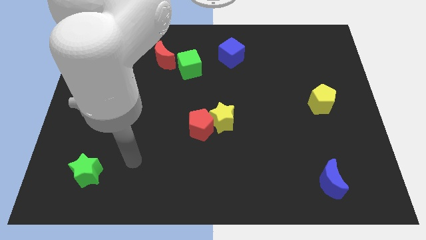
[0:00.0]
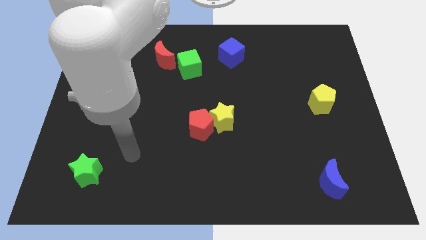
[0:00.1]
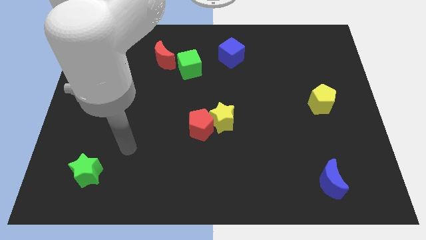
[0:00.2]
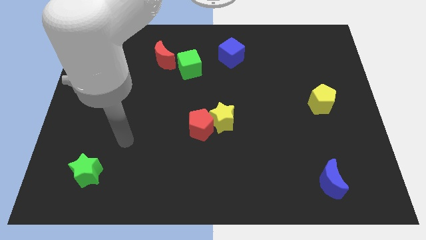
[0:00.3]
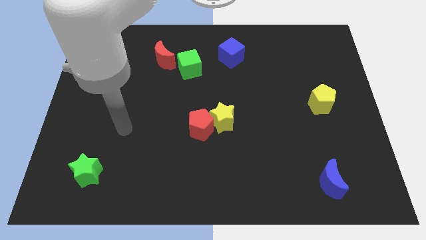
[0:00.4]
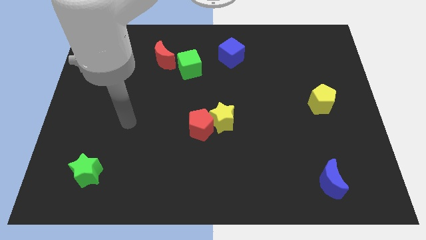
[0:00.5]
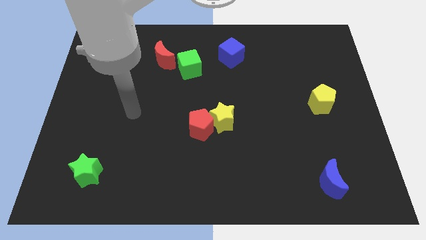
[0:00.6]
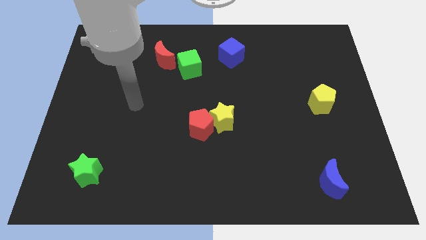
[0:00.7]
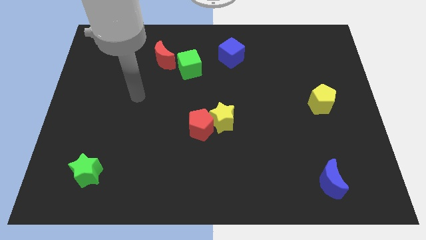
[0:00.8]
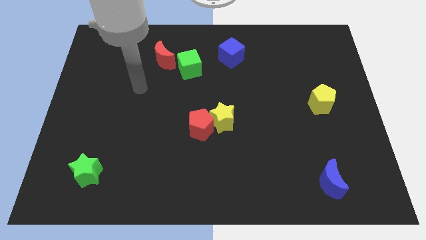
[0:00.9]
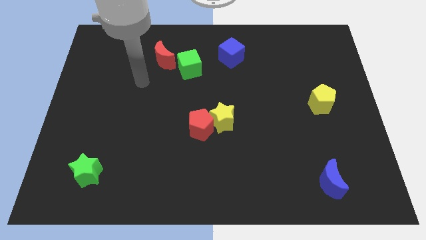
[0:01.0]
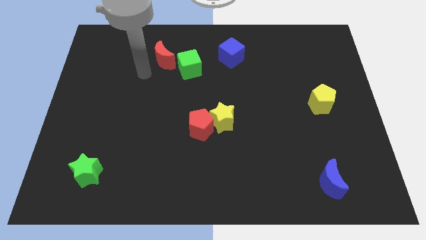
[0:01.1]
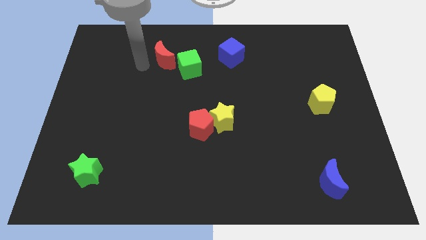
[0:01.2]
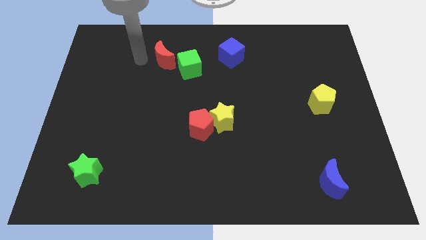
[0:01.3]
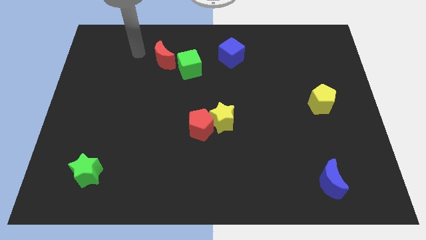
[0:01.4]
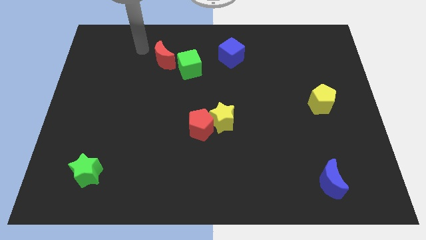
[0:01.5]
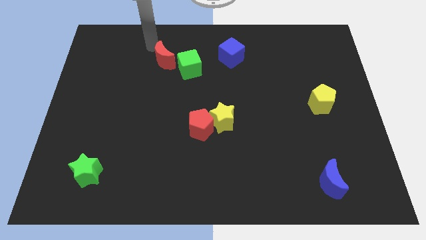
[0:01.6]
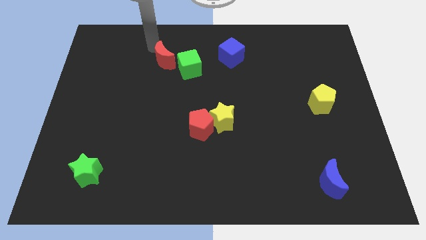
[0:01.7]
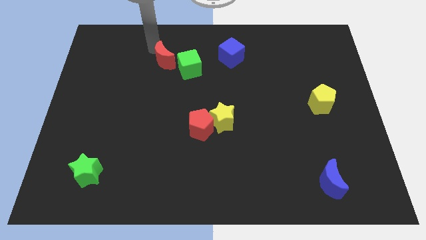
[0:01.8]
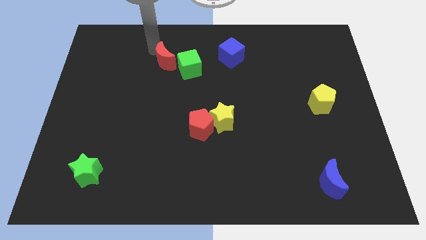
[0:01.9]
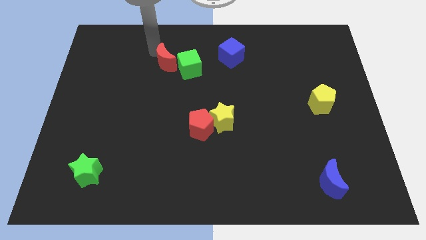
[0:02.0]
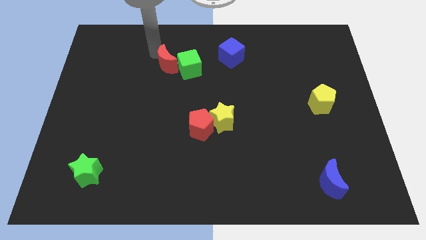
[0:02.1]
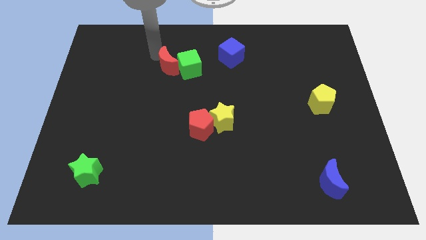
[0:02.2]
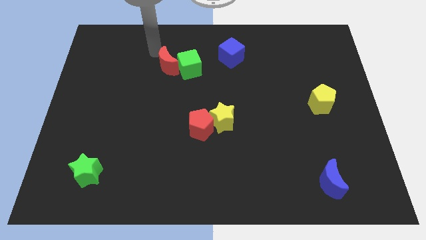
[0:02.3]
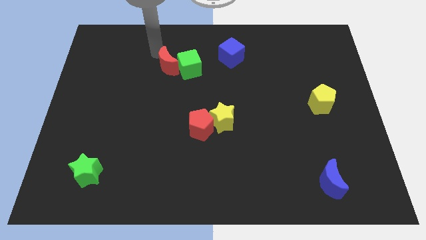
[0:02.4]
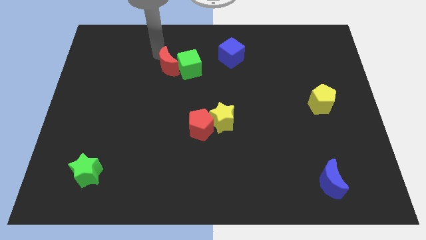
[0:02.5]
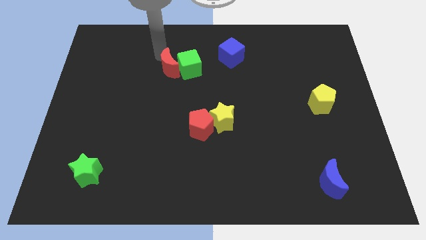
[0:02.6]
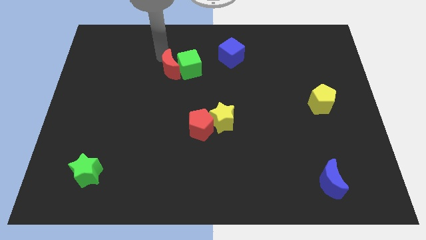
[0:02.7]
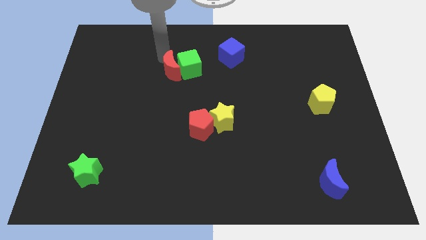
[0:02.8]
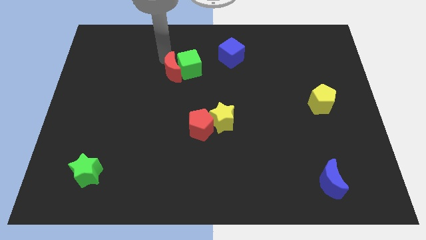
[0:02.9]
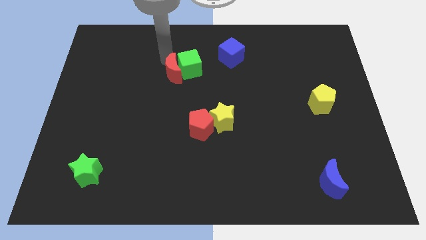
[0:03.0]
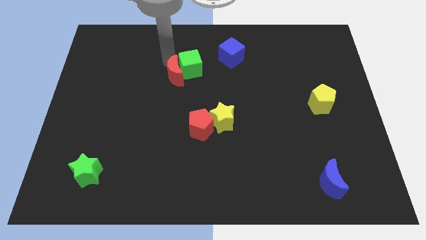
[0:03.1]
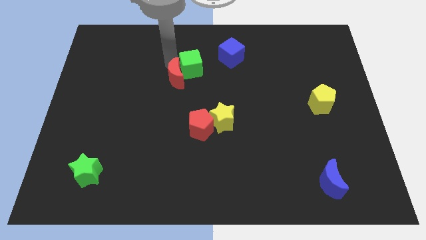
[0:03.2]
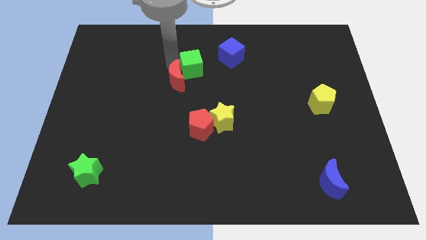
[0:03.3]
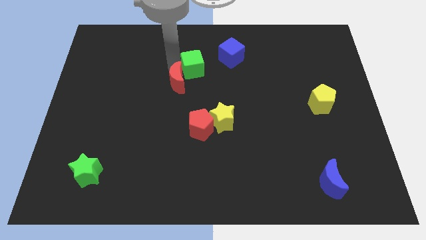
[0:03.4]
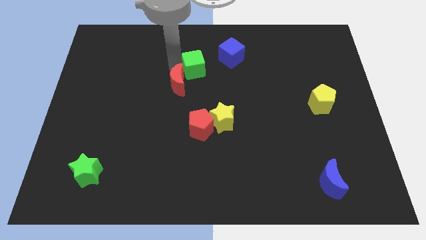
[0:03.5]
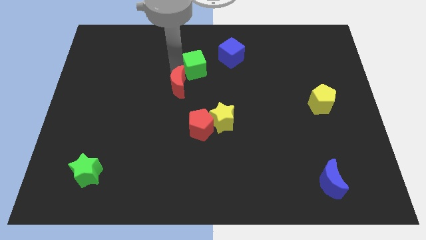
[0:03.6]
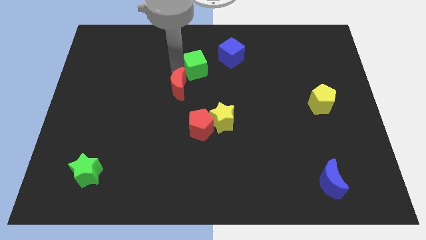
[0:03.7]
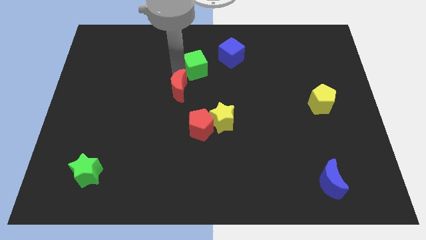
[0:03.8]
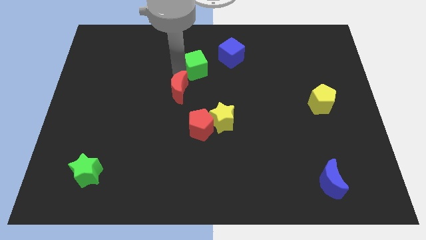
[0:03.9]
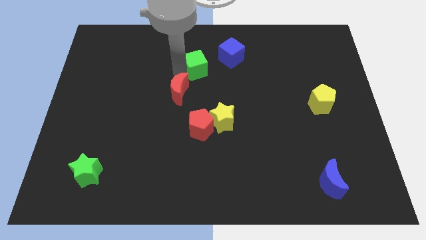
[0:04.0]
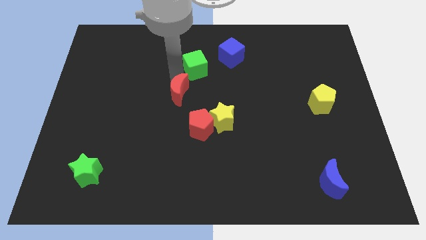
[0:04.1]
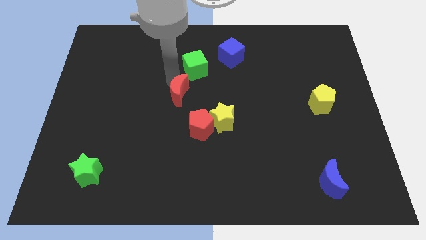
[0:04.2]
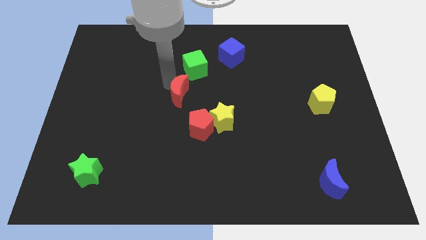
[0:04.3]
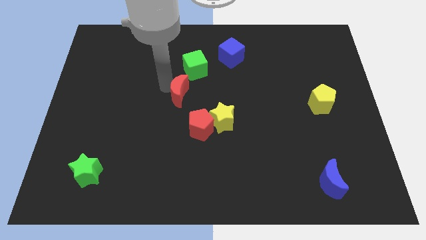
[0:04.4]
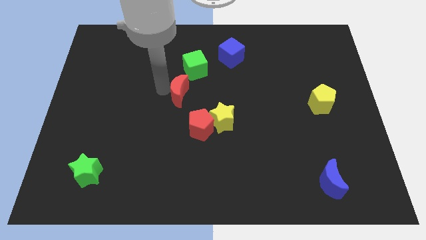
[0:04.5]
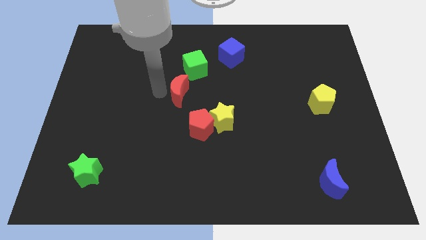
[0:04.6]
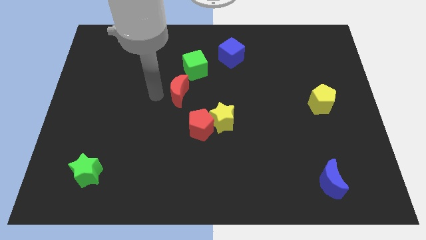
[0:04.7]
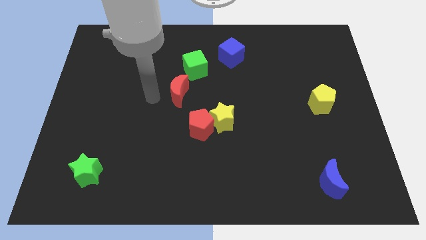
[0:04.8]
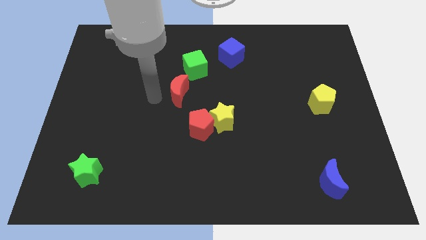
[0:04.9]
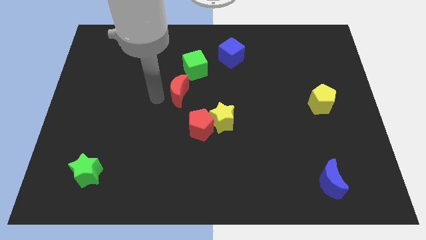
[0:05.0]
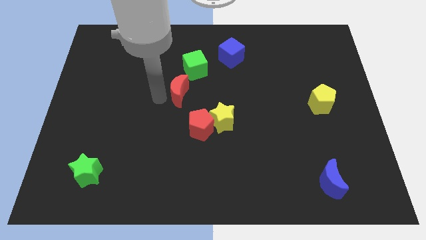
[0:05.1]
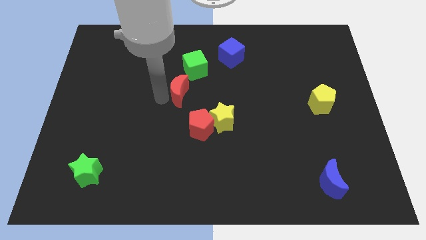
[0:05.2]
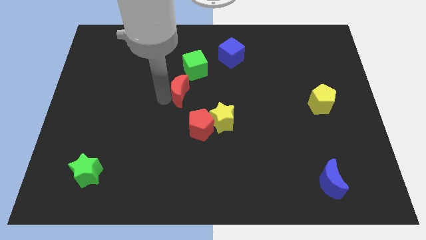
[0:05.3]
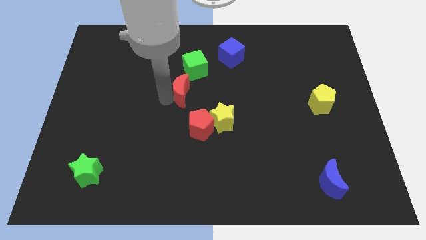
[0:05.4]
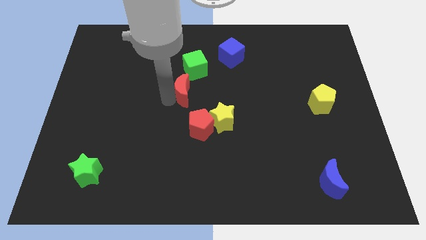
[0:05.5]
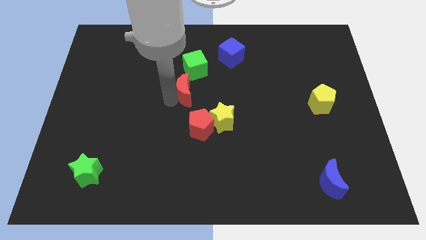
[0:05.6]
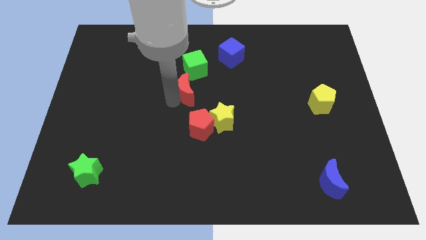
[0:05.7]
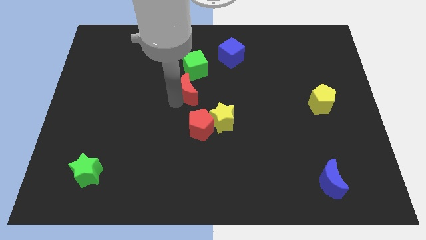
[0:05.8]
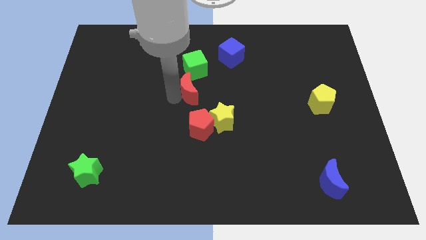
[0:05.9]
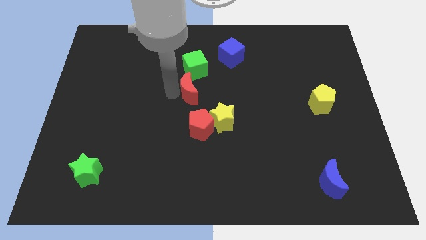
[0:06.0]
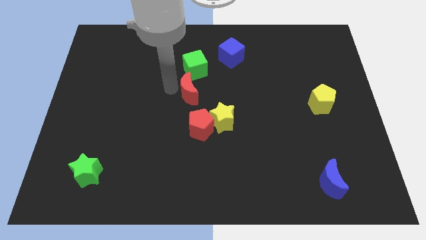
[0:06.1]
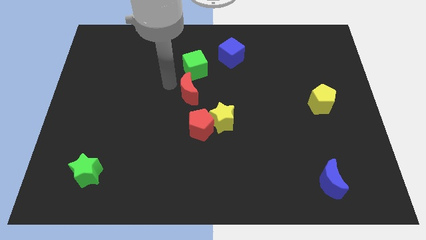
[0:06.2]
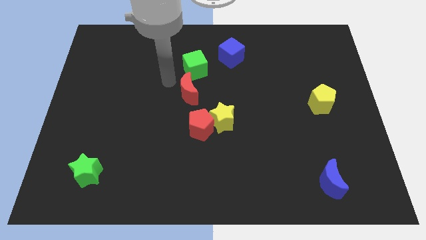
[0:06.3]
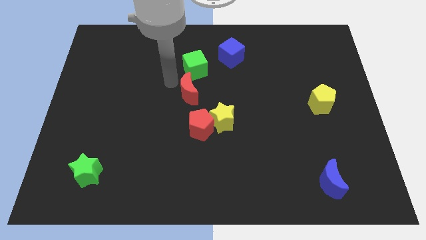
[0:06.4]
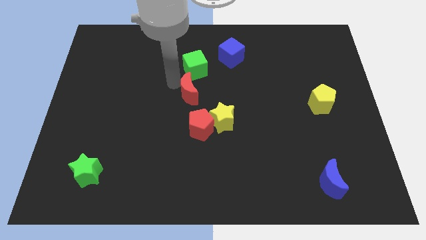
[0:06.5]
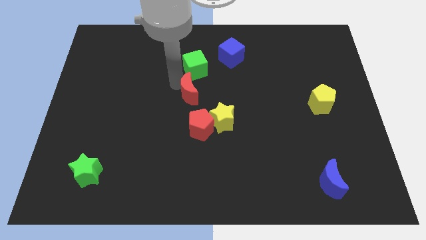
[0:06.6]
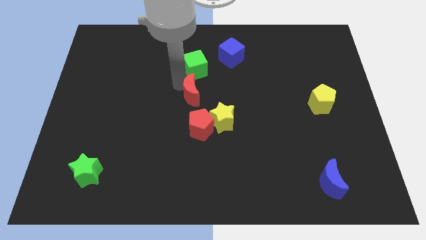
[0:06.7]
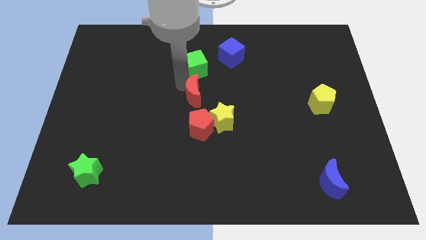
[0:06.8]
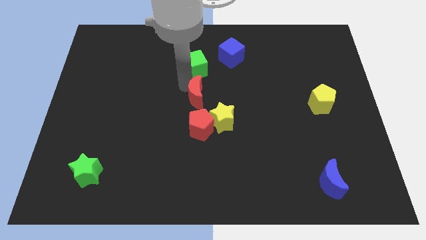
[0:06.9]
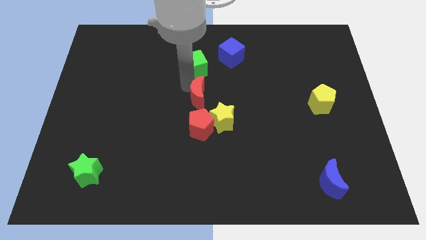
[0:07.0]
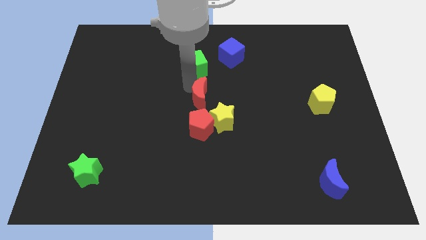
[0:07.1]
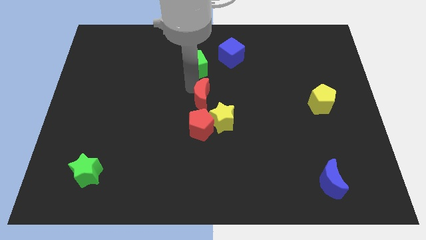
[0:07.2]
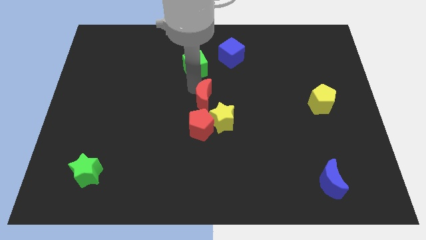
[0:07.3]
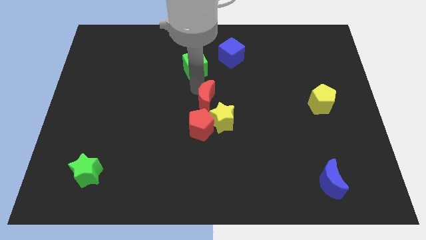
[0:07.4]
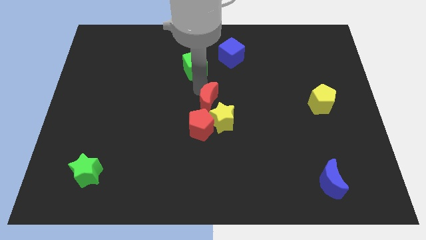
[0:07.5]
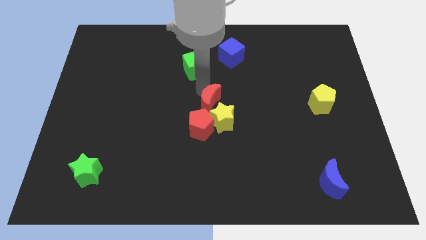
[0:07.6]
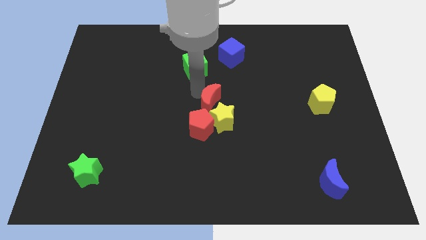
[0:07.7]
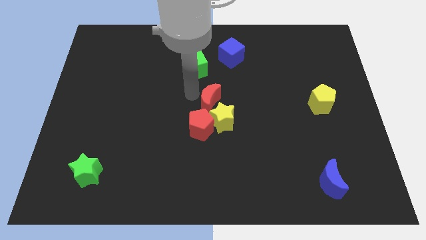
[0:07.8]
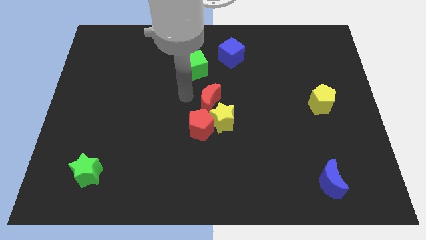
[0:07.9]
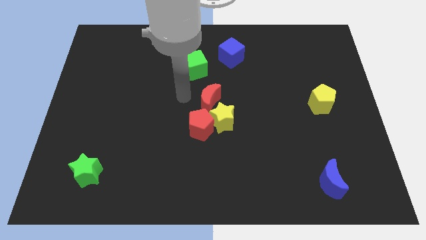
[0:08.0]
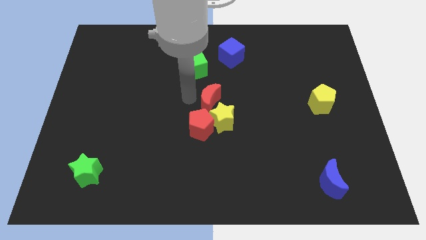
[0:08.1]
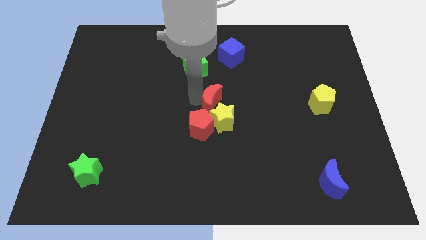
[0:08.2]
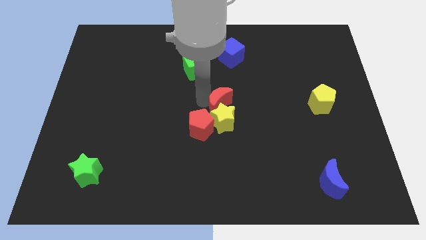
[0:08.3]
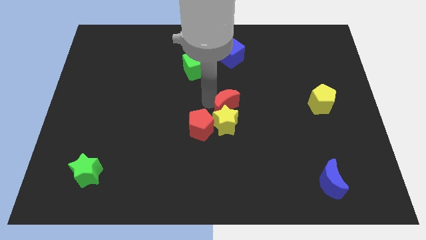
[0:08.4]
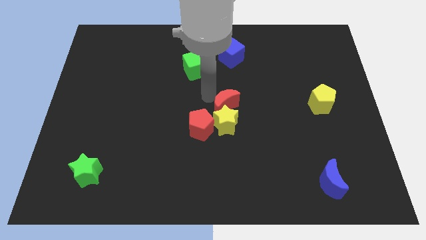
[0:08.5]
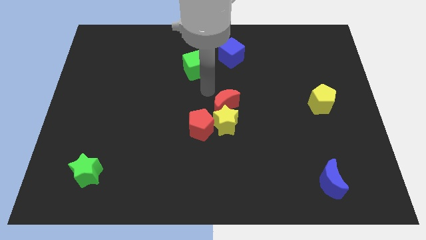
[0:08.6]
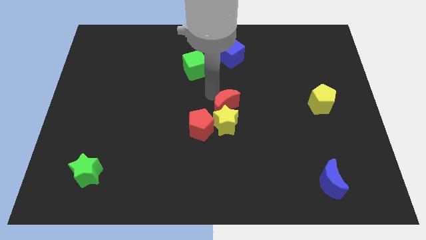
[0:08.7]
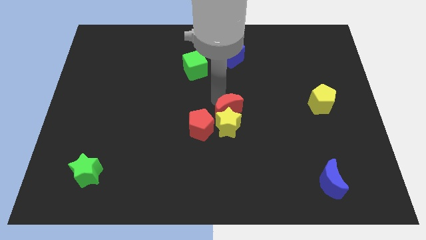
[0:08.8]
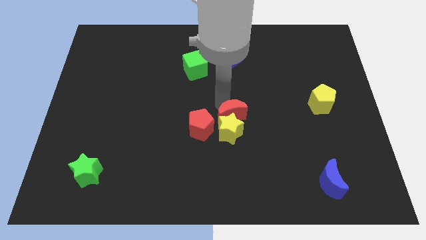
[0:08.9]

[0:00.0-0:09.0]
move the red moon to the right of the red pentagon
